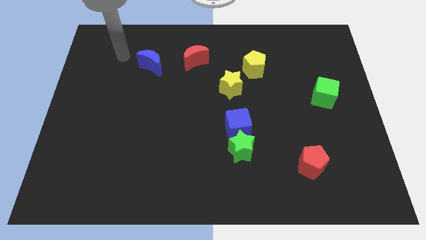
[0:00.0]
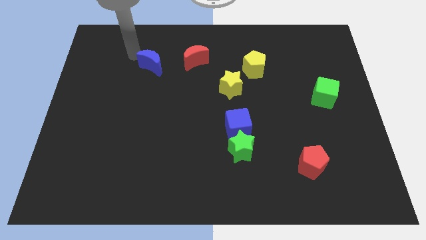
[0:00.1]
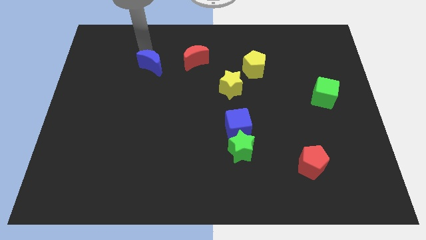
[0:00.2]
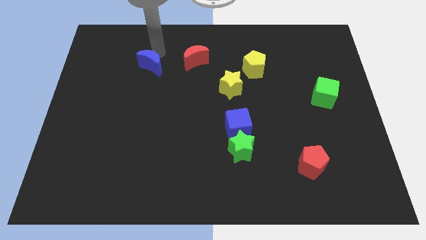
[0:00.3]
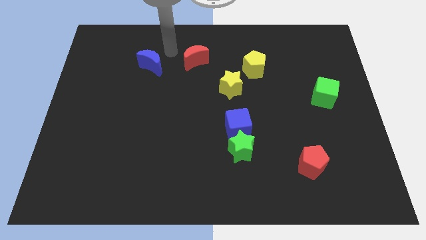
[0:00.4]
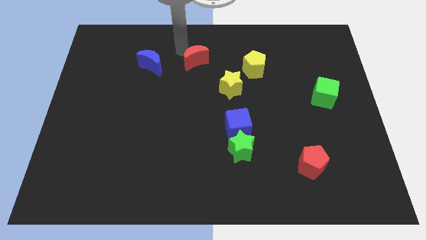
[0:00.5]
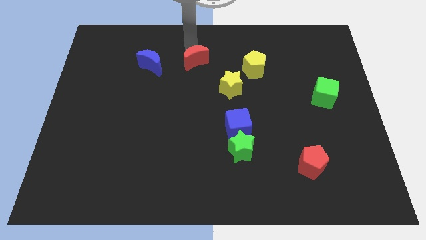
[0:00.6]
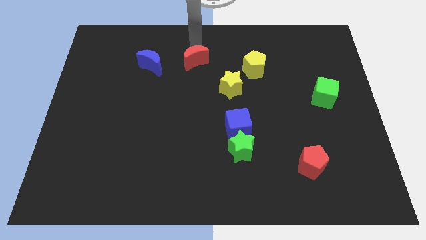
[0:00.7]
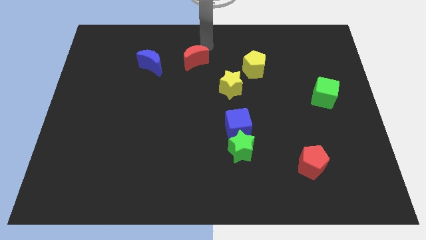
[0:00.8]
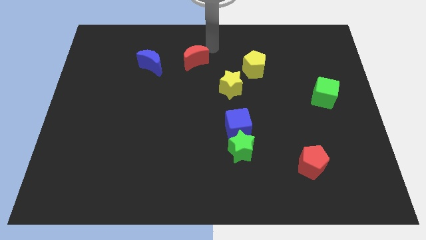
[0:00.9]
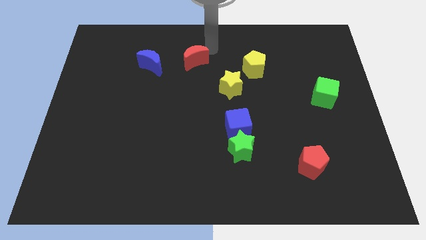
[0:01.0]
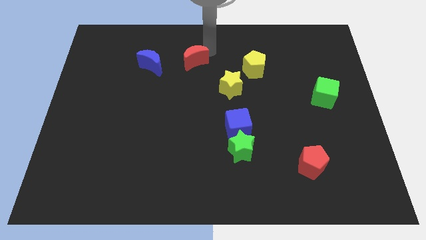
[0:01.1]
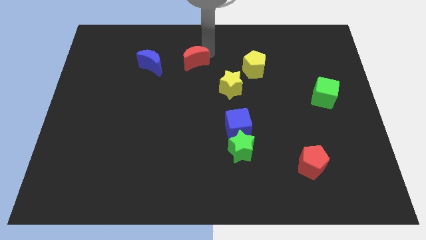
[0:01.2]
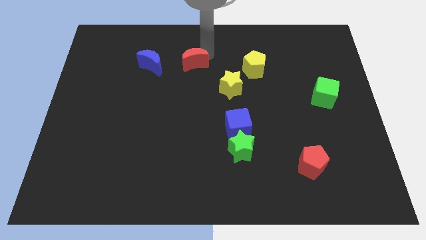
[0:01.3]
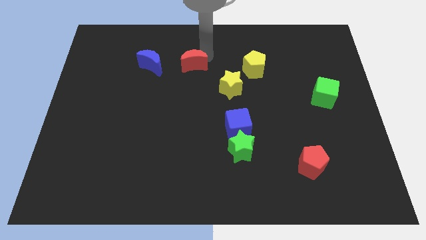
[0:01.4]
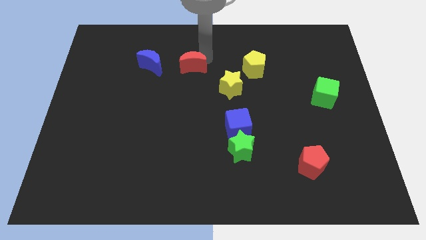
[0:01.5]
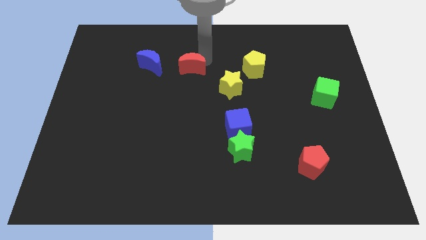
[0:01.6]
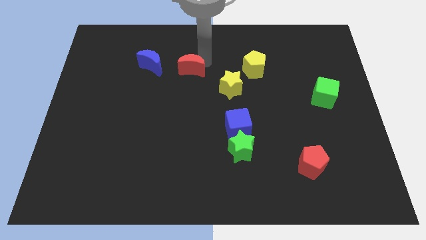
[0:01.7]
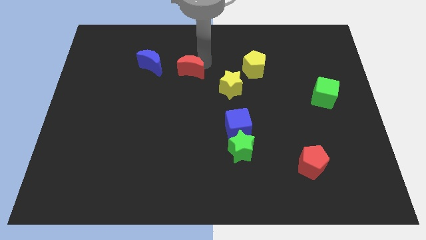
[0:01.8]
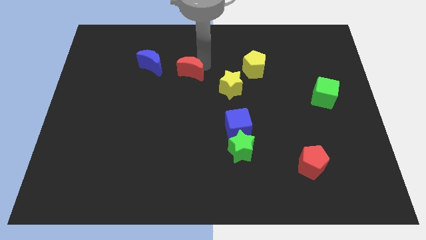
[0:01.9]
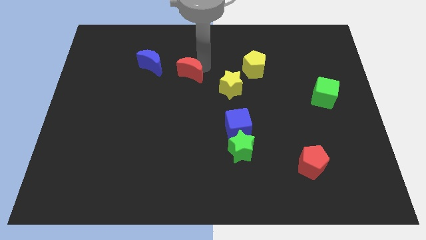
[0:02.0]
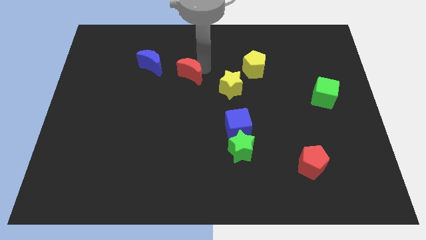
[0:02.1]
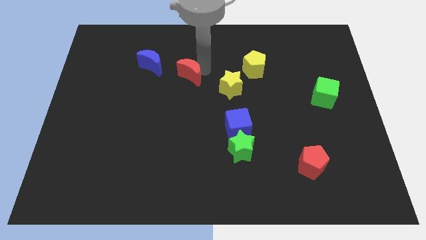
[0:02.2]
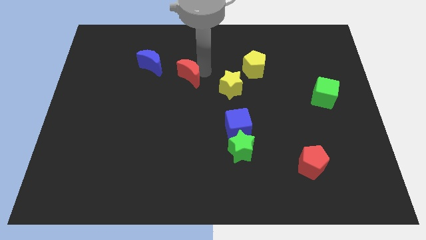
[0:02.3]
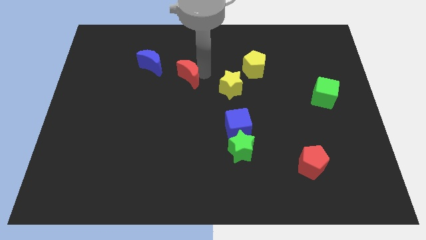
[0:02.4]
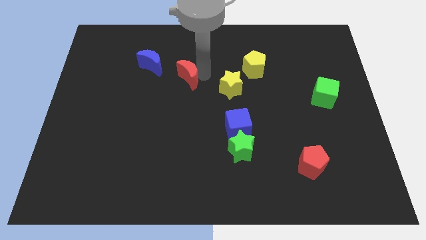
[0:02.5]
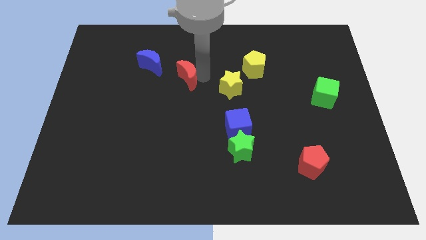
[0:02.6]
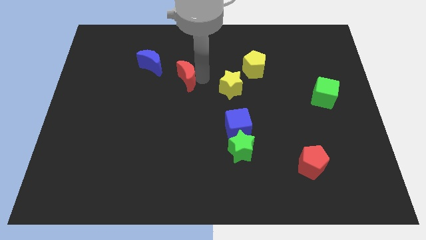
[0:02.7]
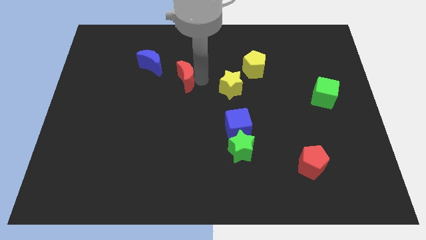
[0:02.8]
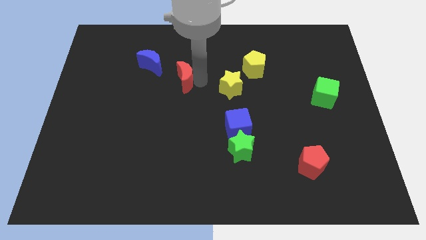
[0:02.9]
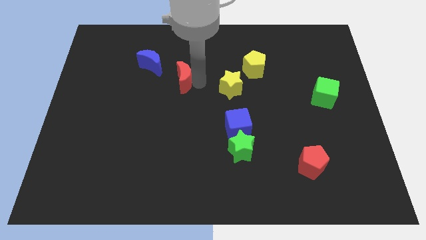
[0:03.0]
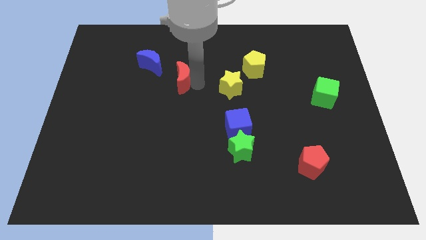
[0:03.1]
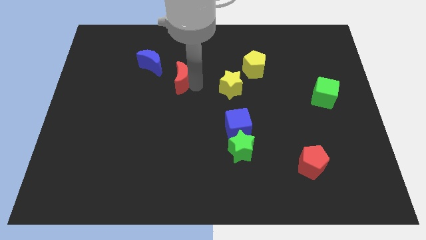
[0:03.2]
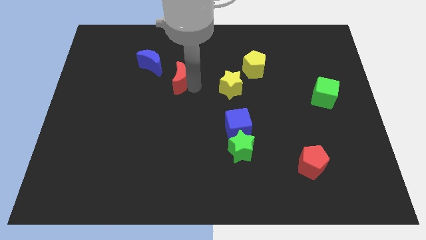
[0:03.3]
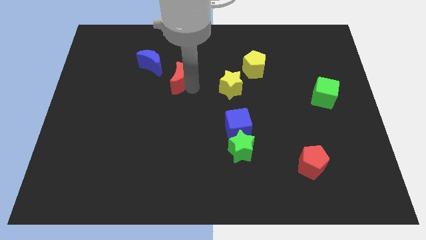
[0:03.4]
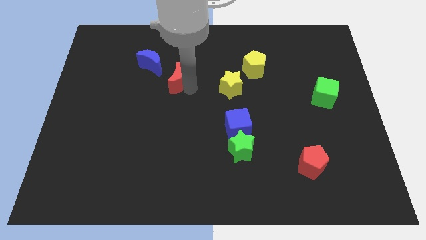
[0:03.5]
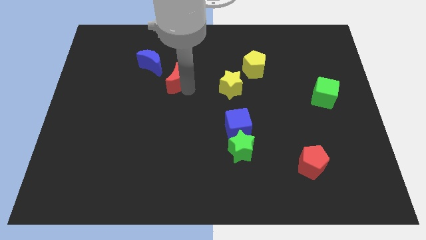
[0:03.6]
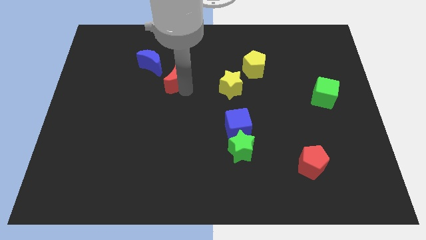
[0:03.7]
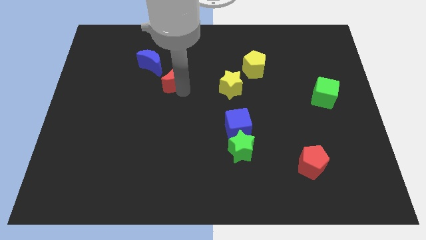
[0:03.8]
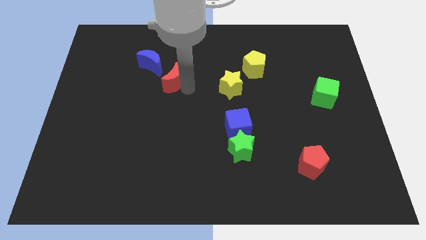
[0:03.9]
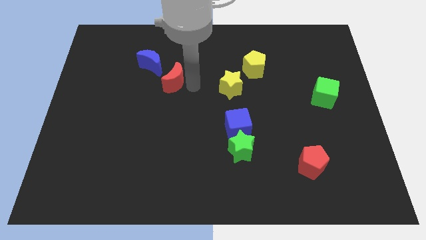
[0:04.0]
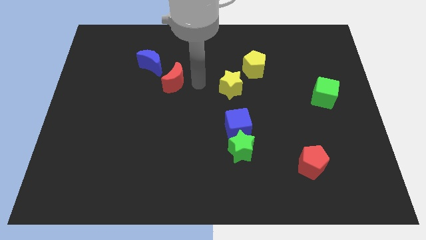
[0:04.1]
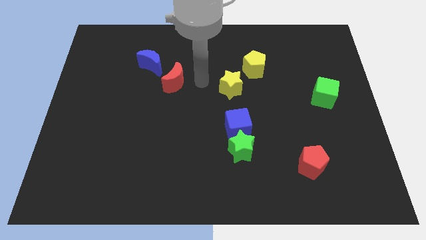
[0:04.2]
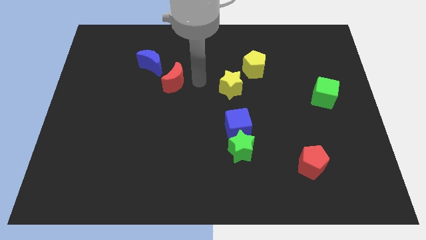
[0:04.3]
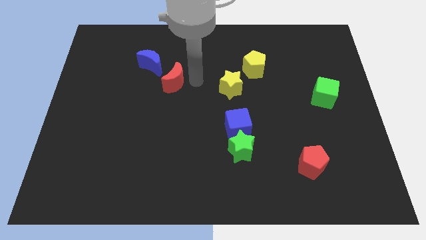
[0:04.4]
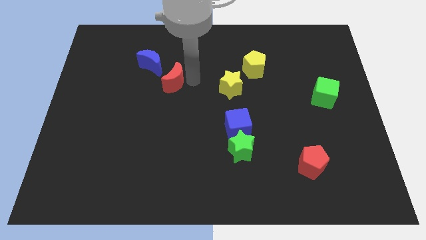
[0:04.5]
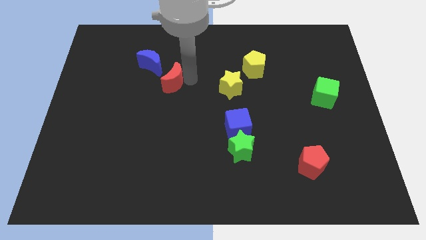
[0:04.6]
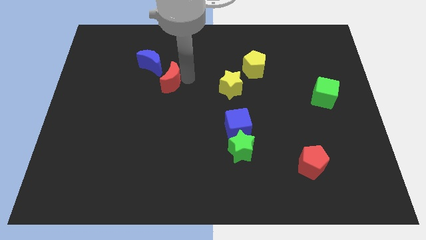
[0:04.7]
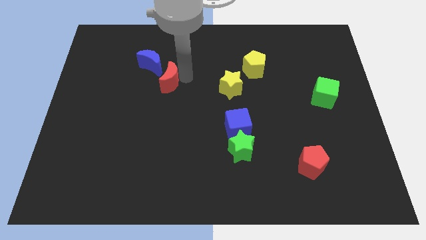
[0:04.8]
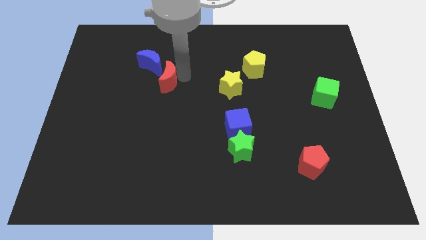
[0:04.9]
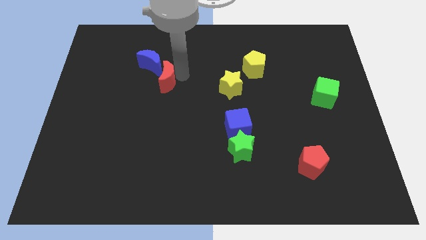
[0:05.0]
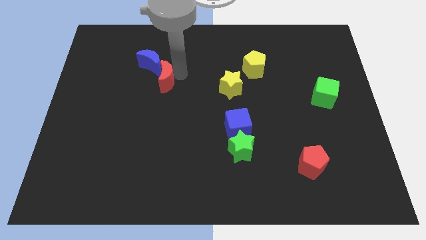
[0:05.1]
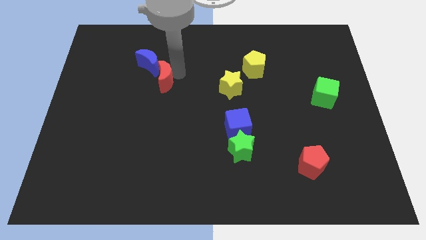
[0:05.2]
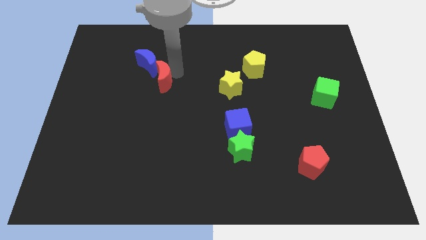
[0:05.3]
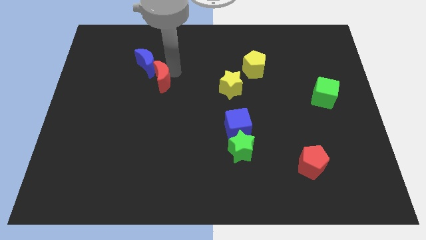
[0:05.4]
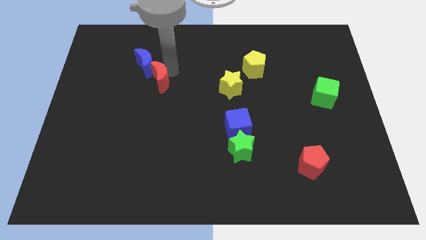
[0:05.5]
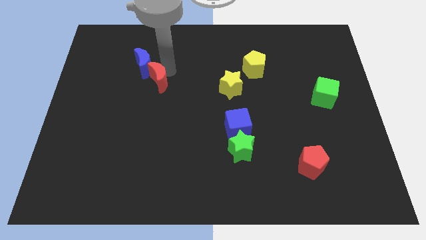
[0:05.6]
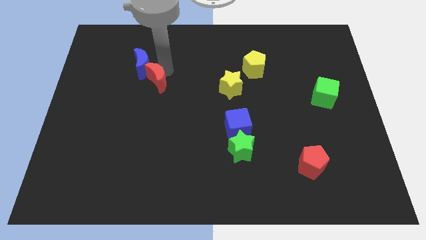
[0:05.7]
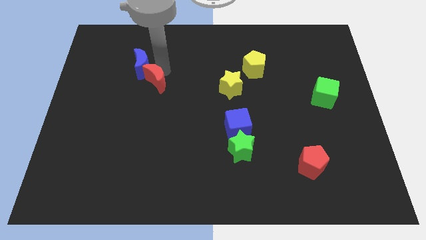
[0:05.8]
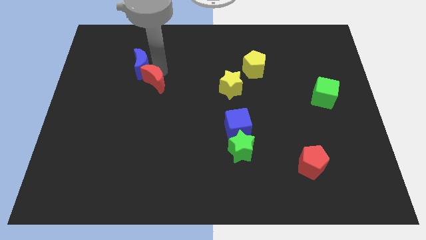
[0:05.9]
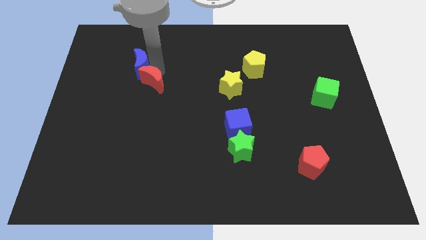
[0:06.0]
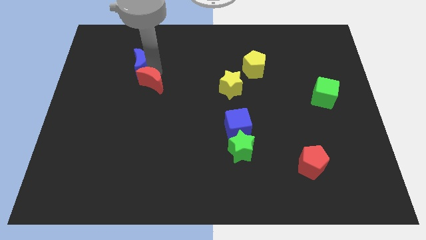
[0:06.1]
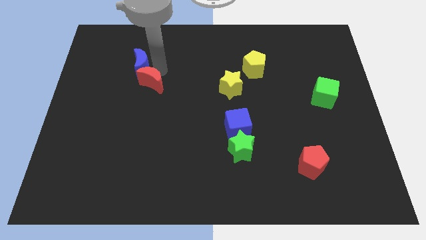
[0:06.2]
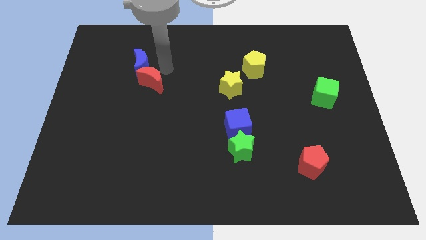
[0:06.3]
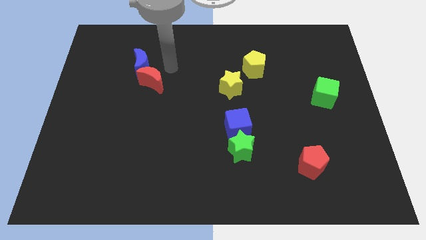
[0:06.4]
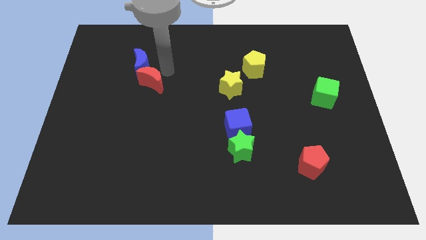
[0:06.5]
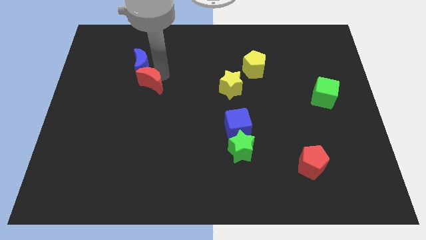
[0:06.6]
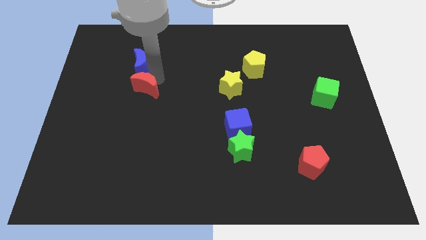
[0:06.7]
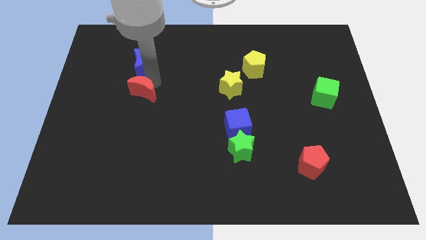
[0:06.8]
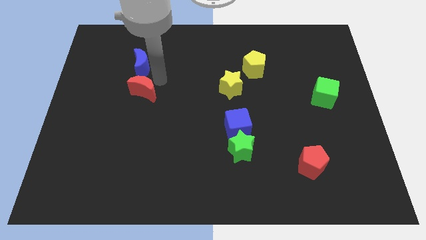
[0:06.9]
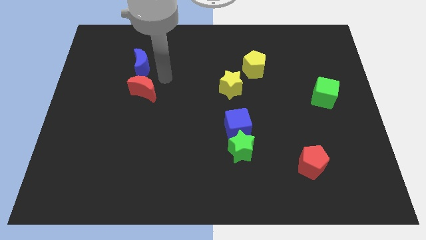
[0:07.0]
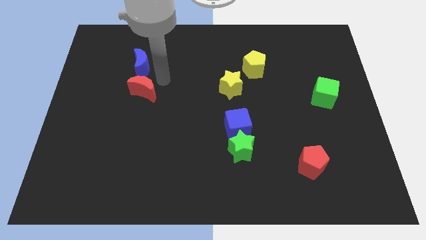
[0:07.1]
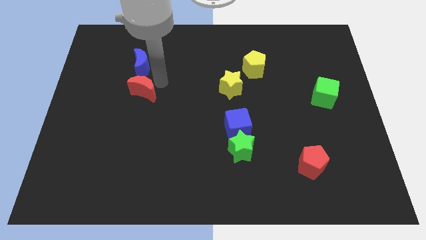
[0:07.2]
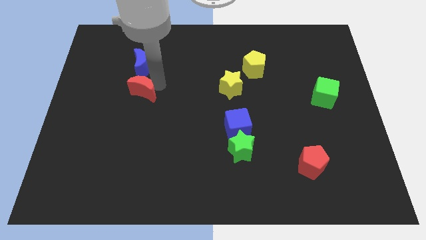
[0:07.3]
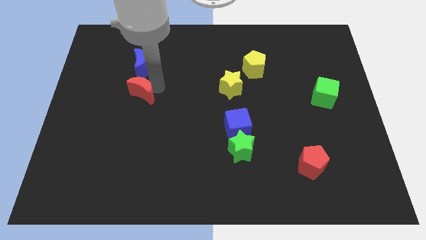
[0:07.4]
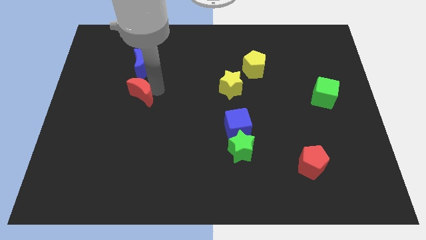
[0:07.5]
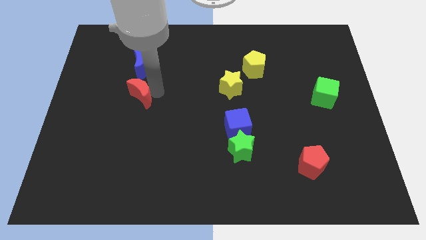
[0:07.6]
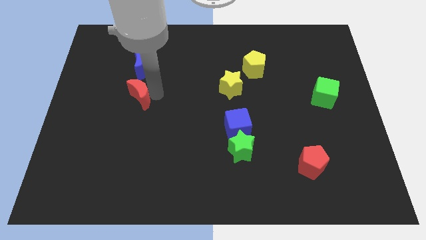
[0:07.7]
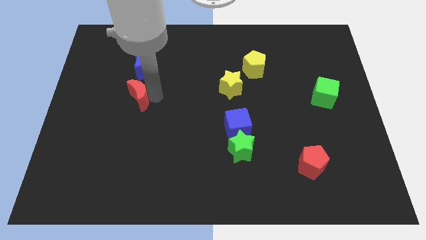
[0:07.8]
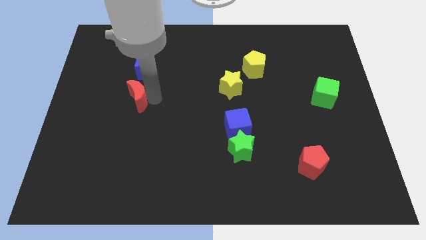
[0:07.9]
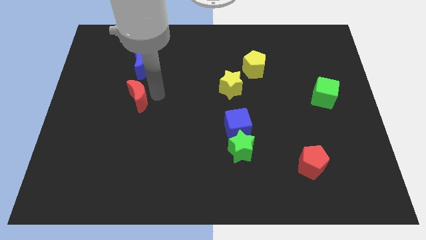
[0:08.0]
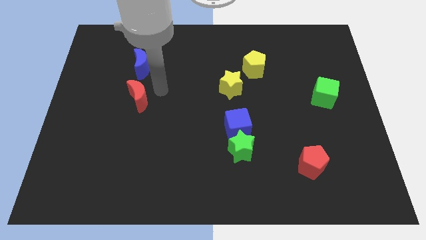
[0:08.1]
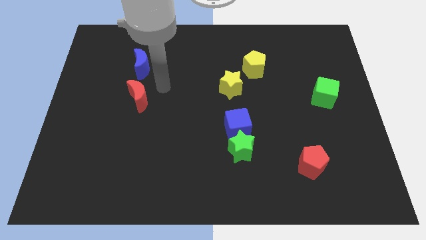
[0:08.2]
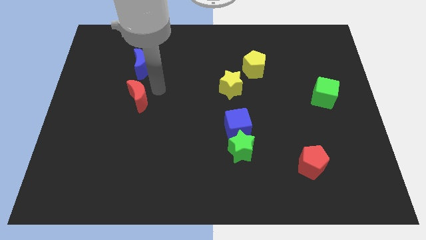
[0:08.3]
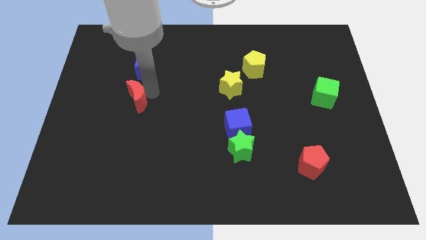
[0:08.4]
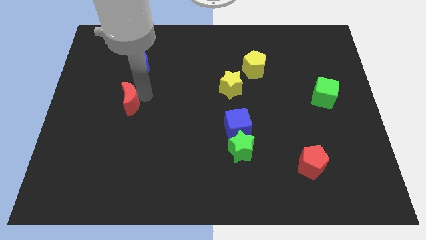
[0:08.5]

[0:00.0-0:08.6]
slide the red moon downwards and left diagonally
